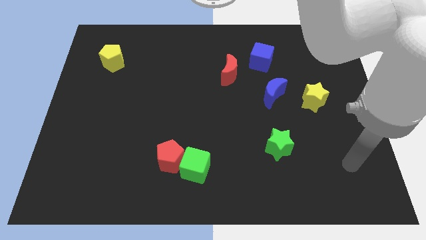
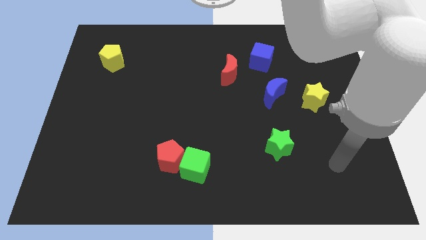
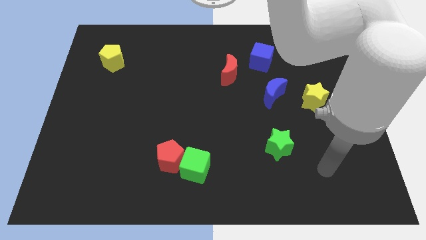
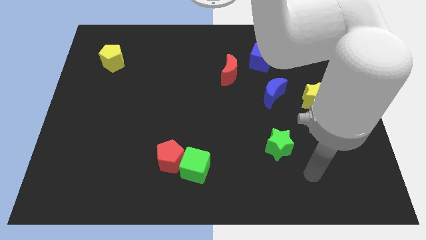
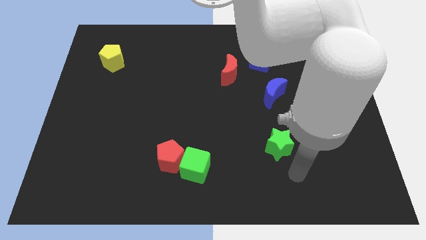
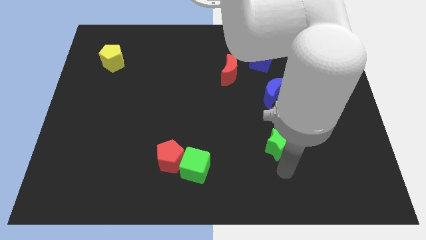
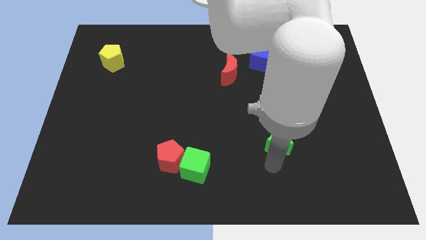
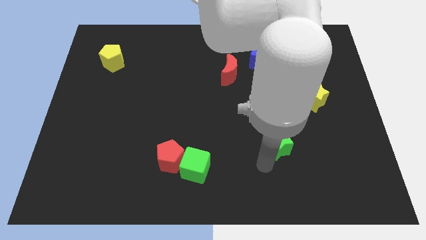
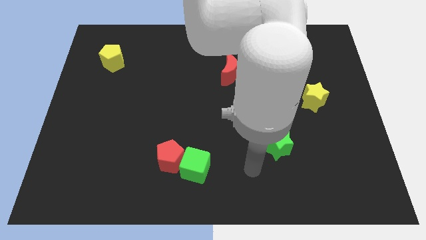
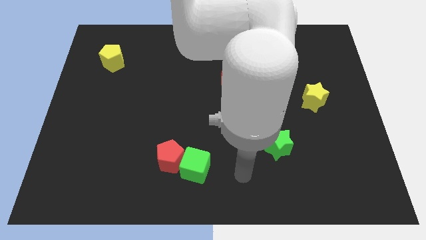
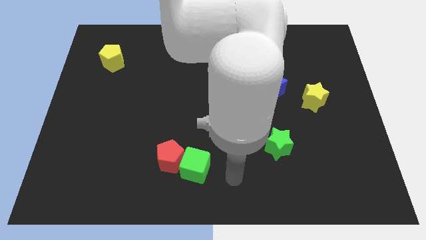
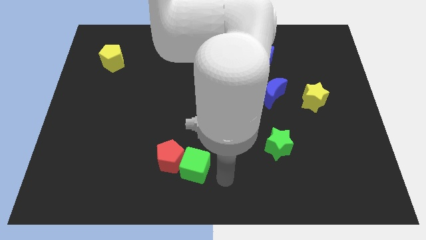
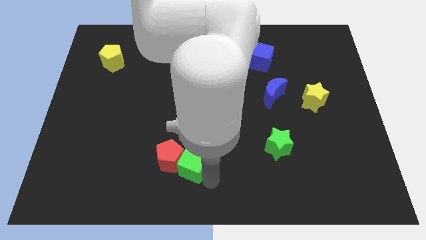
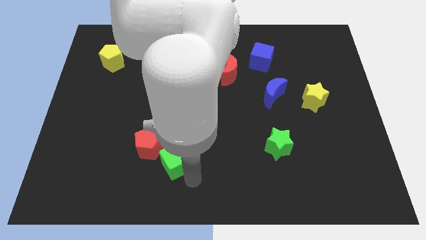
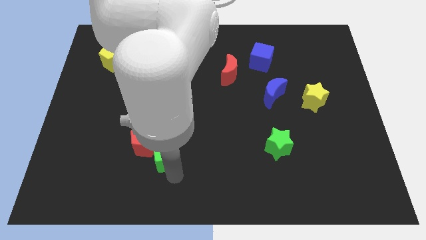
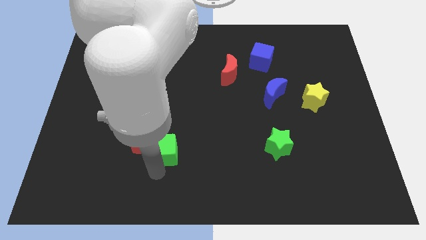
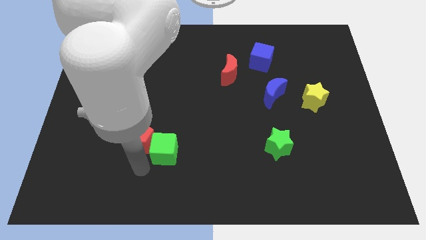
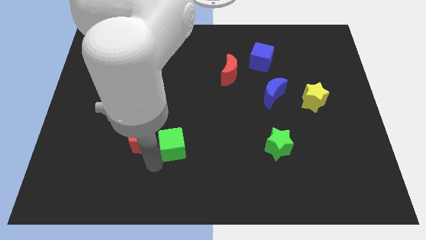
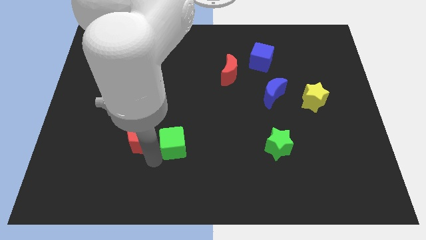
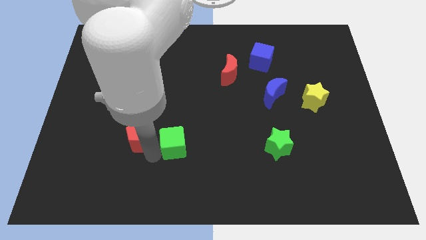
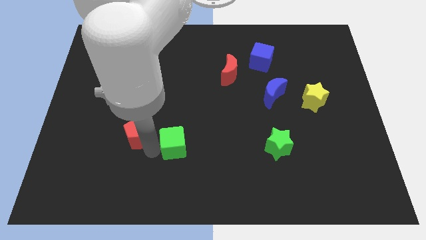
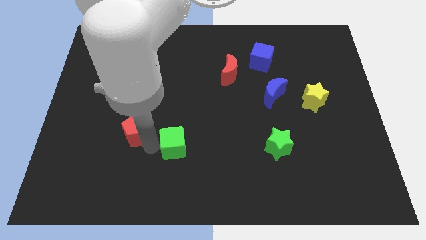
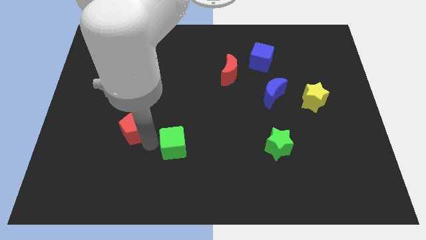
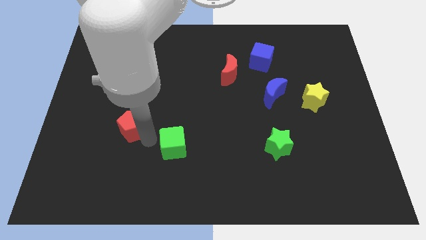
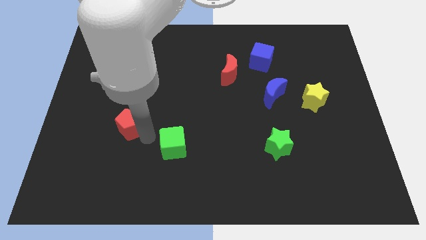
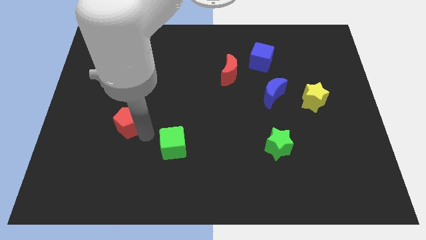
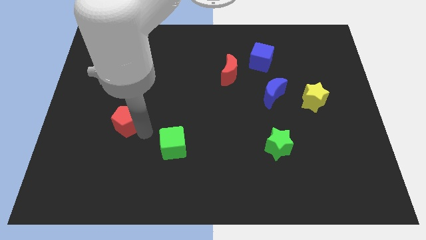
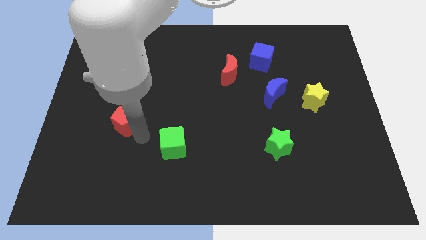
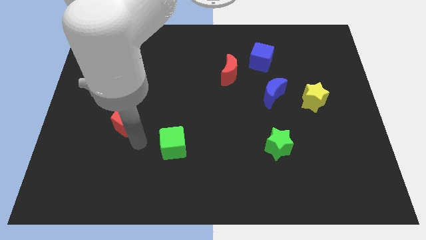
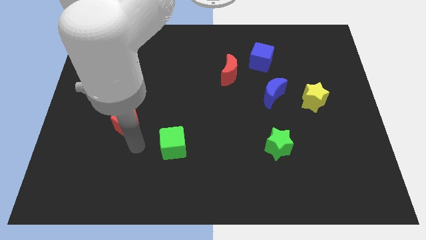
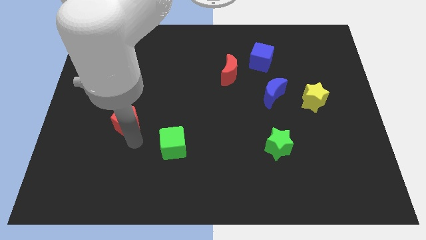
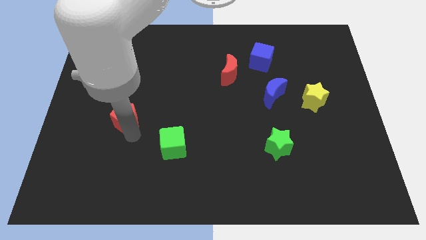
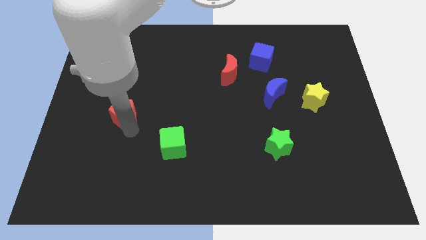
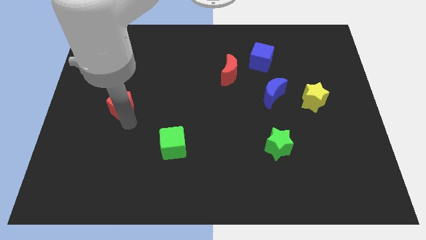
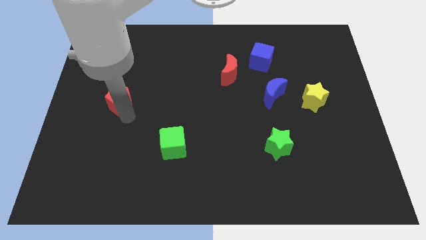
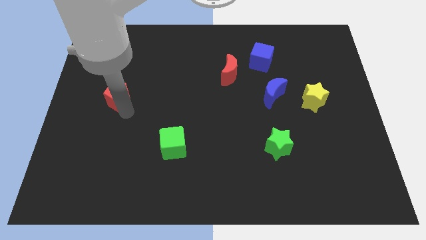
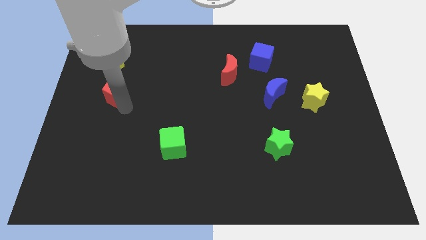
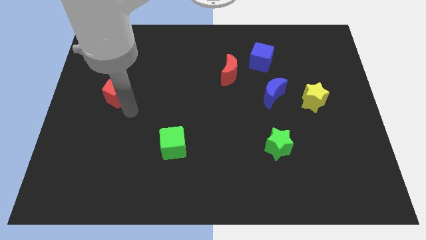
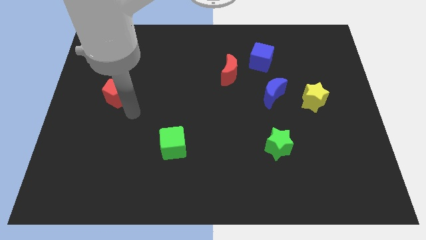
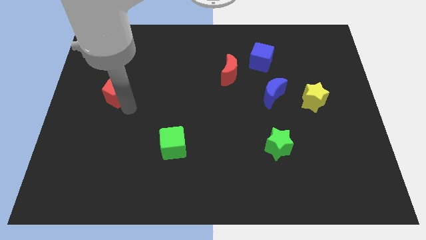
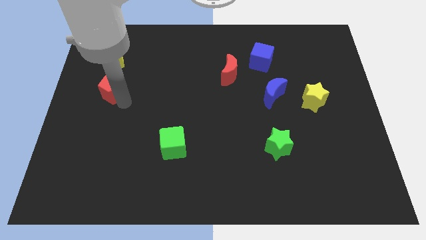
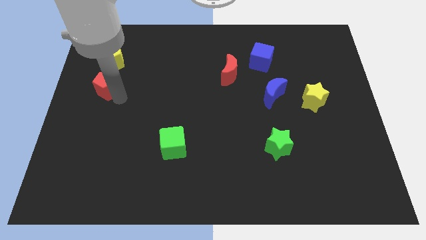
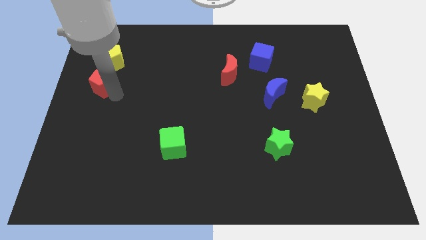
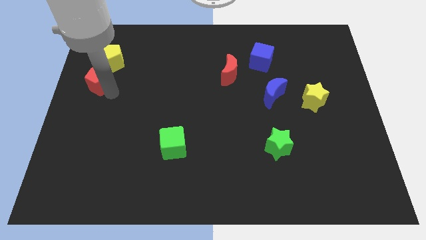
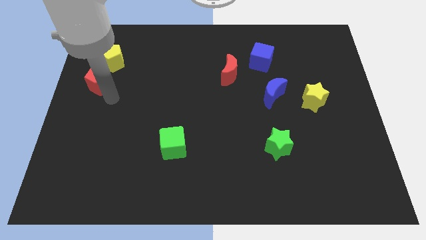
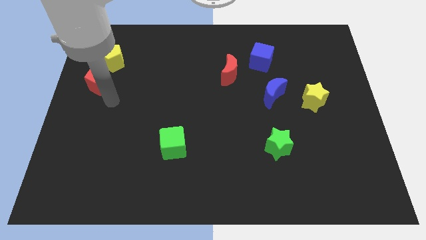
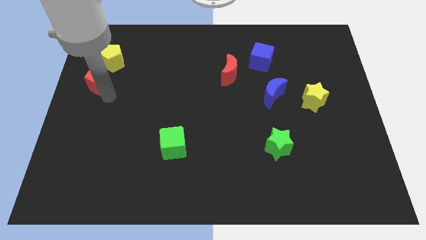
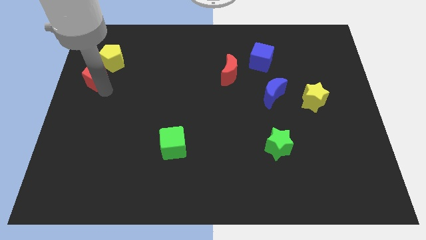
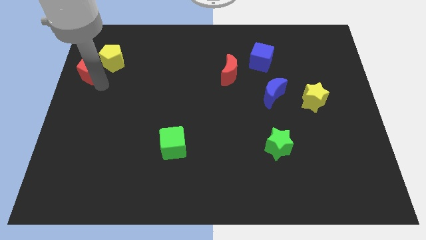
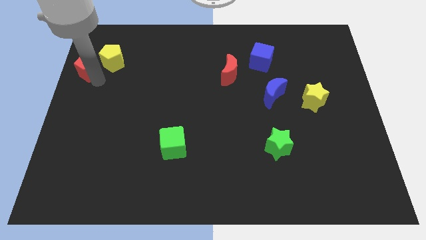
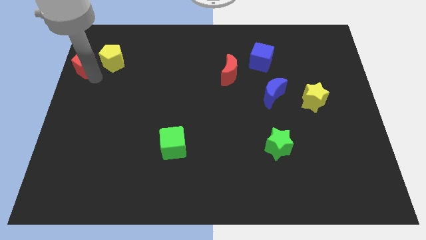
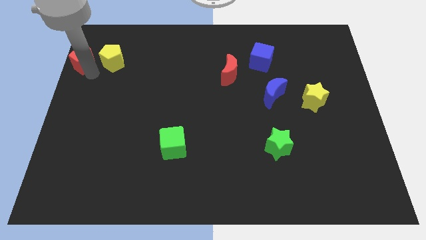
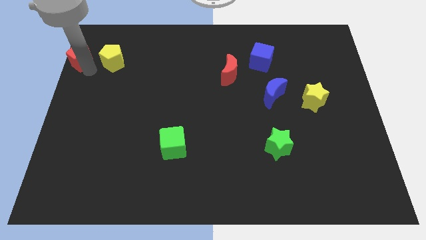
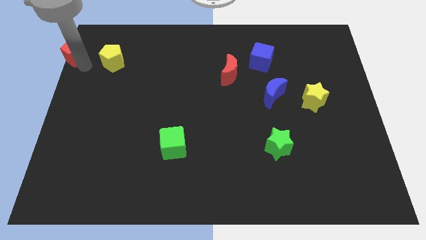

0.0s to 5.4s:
put the red pentagon to the top left
